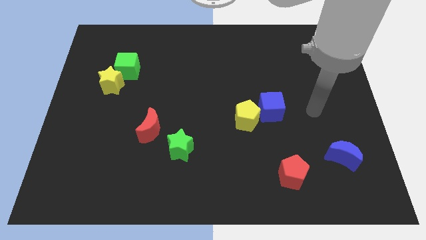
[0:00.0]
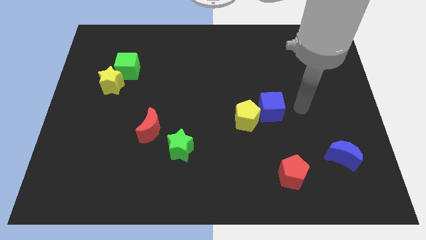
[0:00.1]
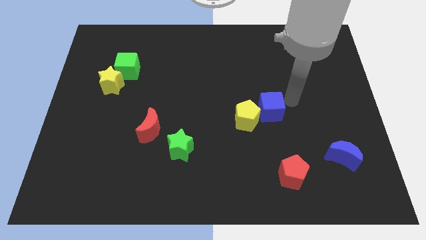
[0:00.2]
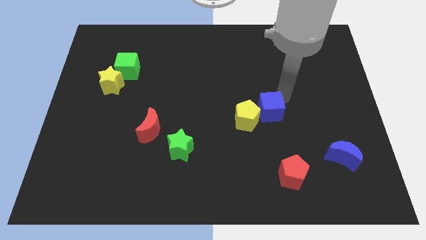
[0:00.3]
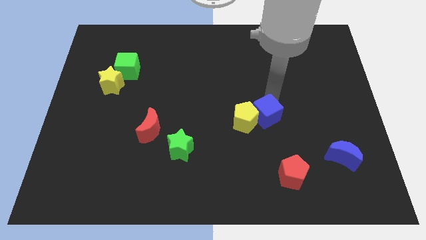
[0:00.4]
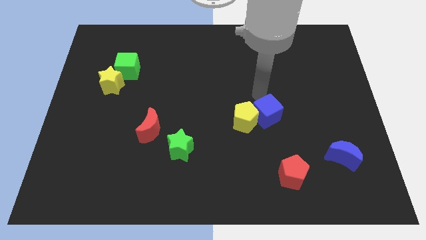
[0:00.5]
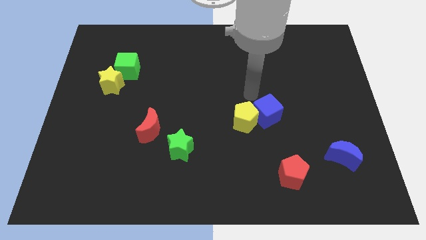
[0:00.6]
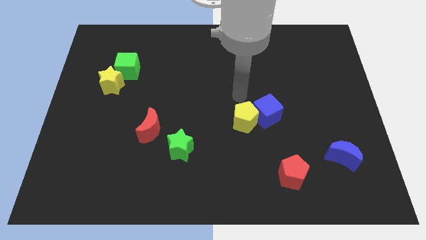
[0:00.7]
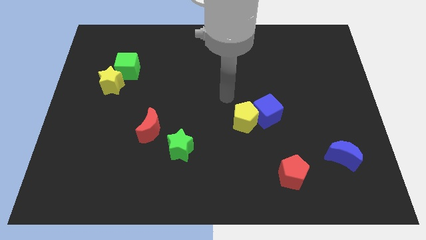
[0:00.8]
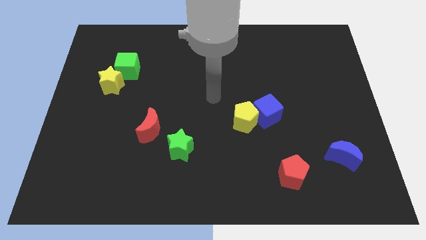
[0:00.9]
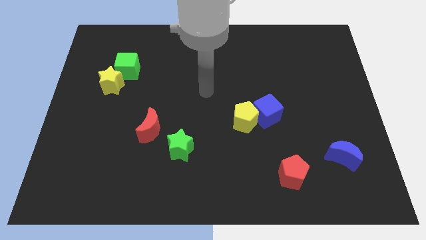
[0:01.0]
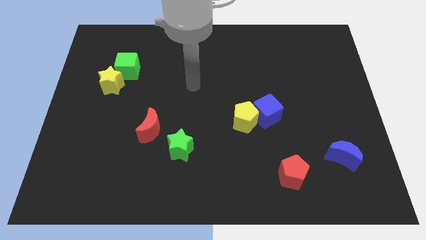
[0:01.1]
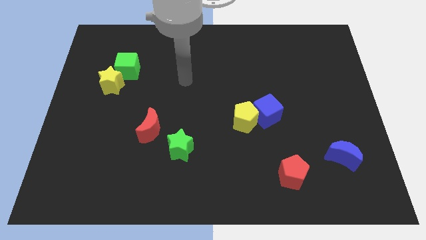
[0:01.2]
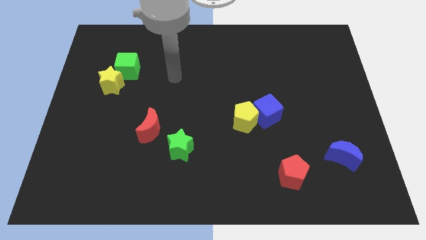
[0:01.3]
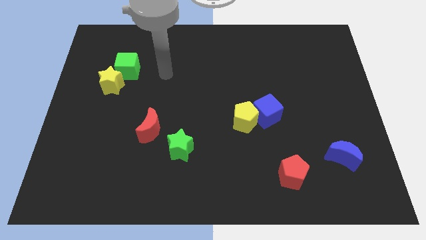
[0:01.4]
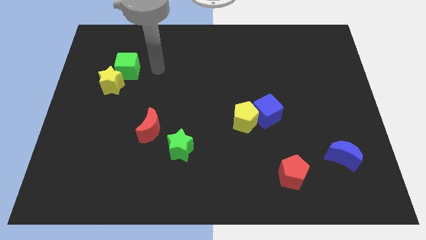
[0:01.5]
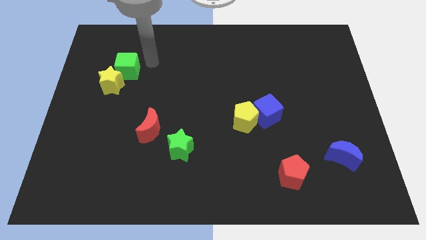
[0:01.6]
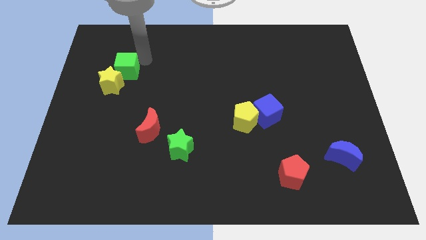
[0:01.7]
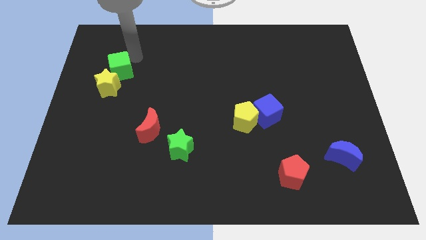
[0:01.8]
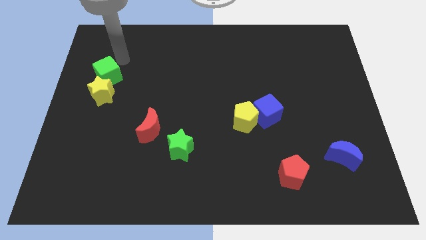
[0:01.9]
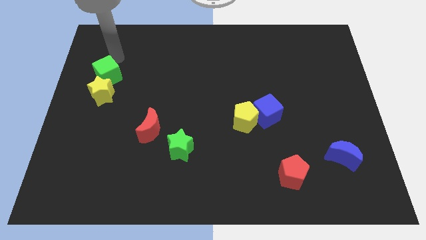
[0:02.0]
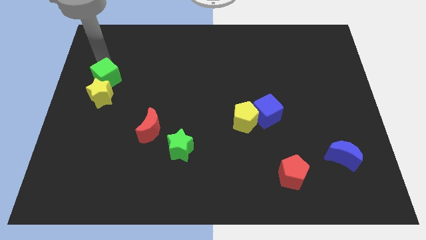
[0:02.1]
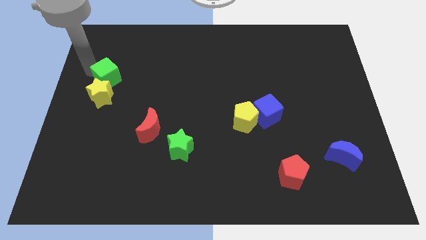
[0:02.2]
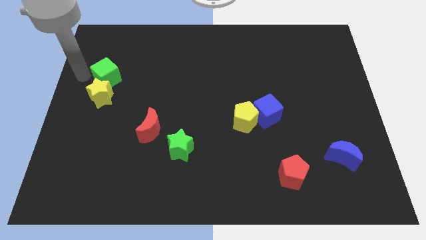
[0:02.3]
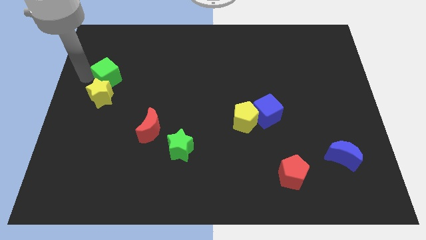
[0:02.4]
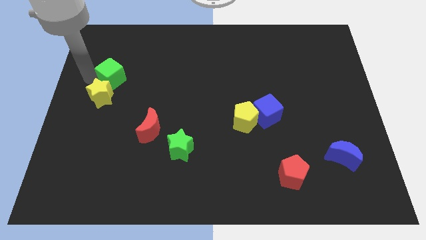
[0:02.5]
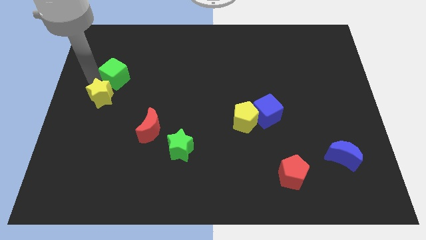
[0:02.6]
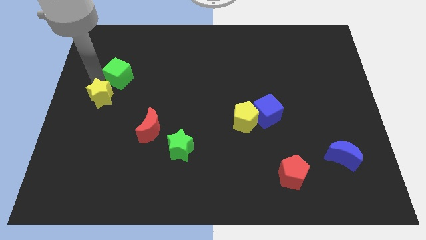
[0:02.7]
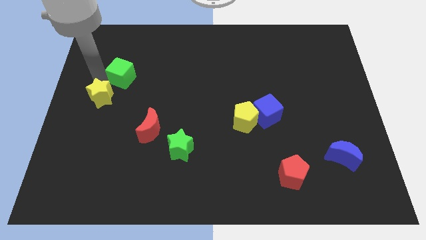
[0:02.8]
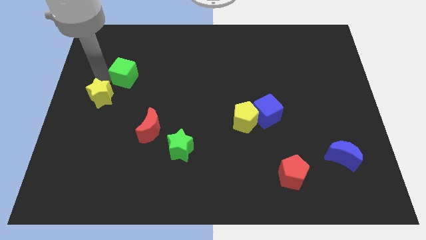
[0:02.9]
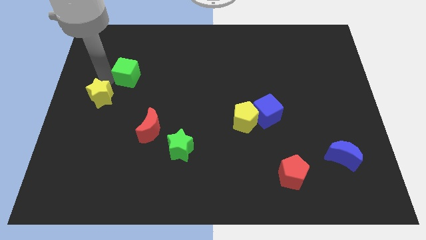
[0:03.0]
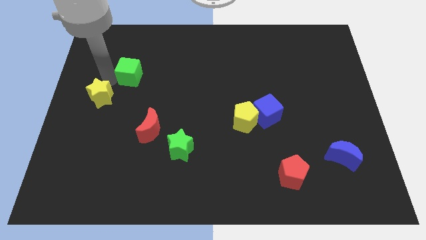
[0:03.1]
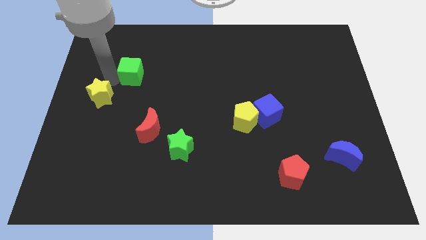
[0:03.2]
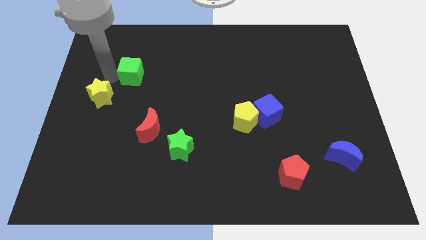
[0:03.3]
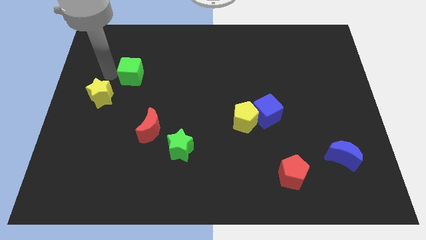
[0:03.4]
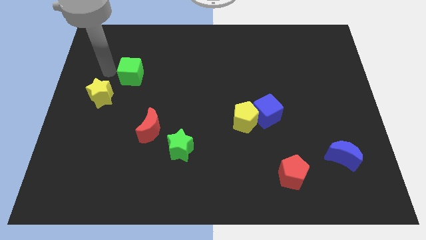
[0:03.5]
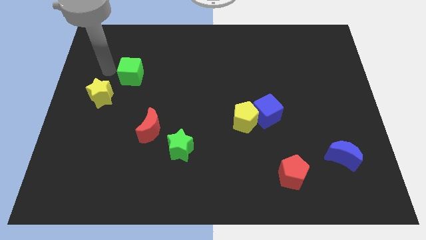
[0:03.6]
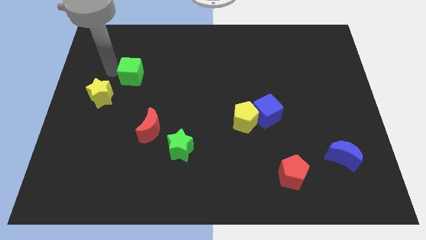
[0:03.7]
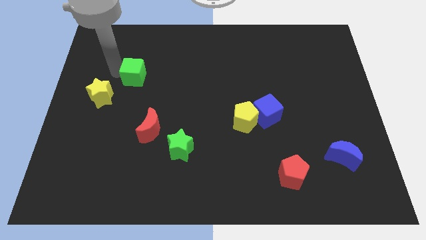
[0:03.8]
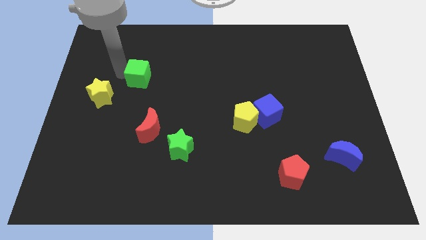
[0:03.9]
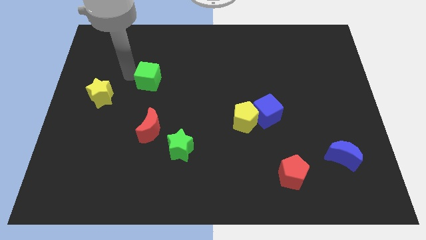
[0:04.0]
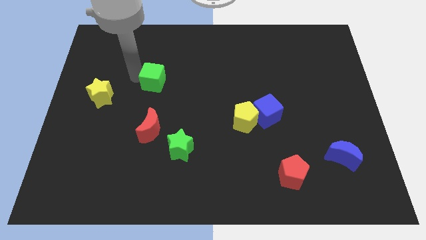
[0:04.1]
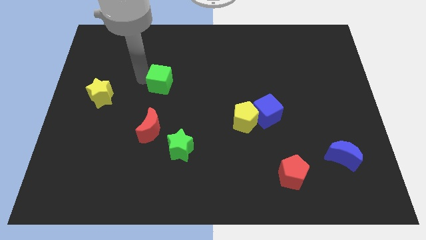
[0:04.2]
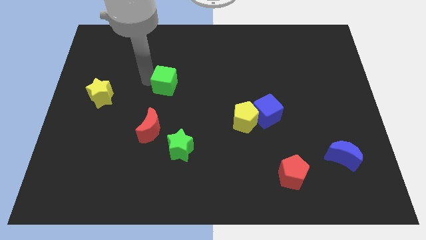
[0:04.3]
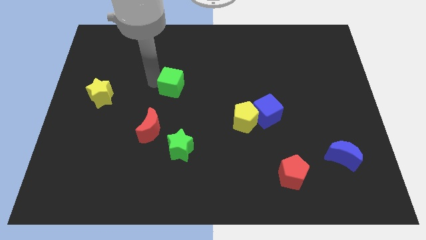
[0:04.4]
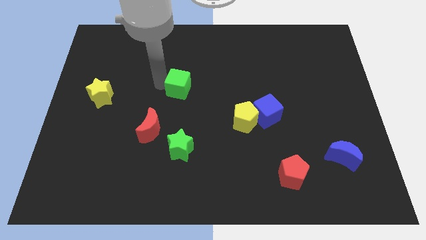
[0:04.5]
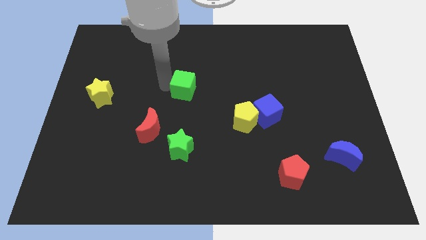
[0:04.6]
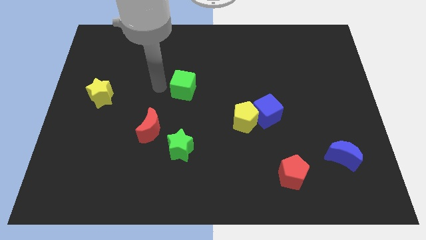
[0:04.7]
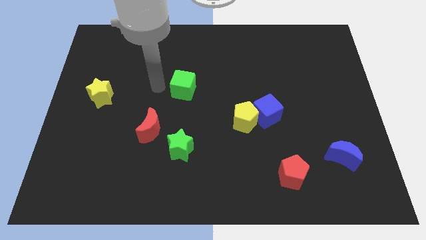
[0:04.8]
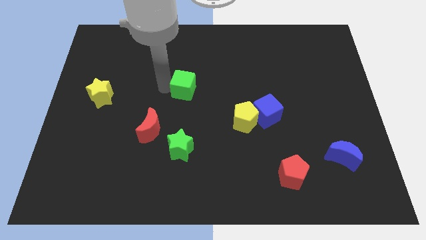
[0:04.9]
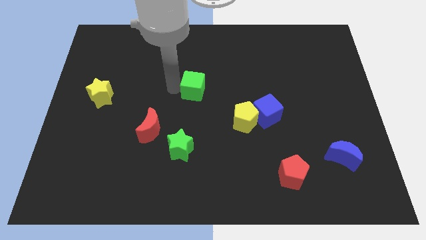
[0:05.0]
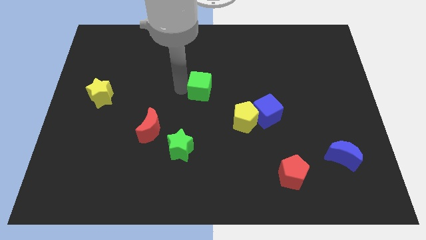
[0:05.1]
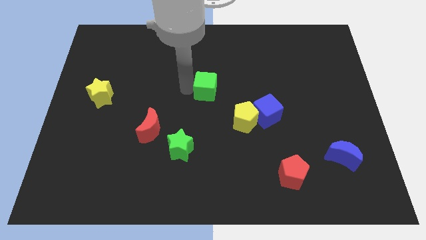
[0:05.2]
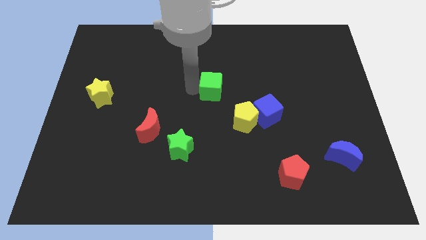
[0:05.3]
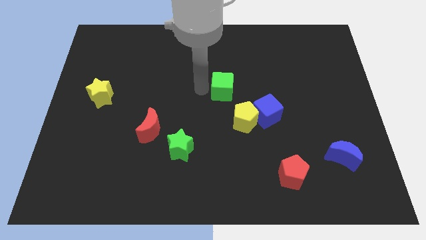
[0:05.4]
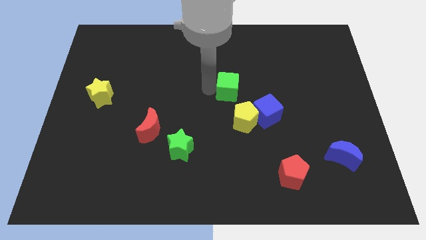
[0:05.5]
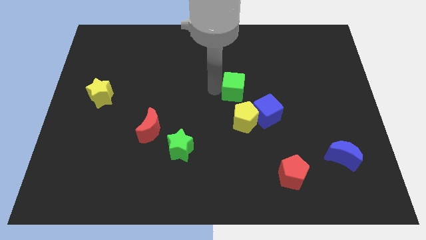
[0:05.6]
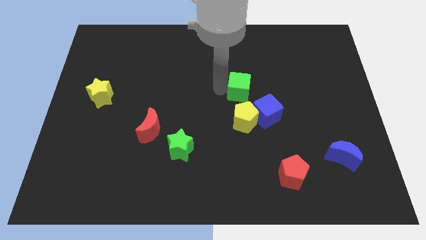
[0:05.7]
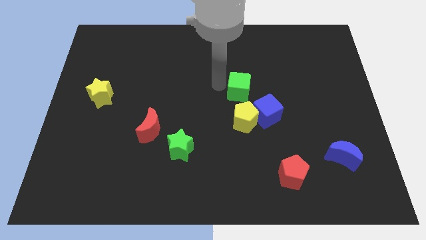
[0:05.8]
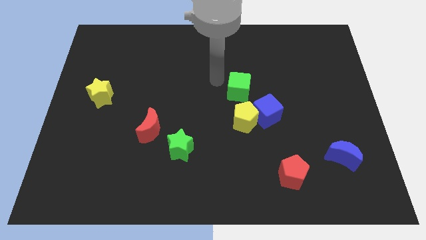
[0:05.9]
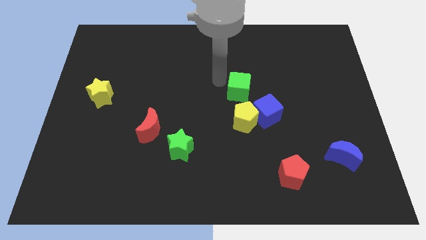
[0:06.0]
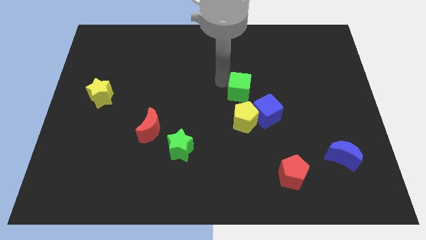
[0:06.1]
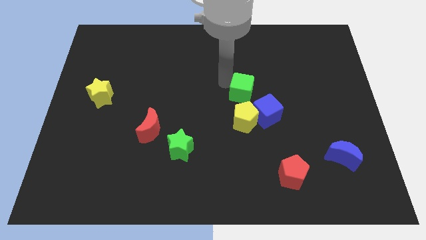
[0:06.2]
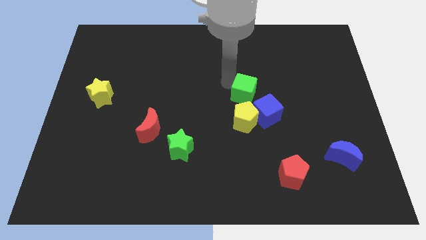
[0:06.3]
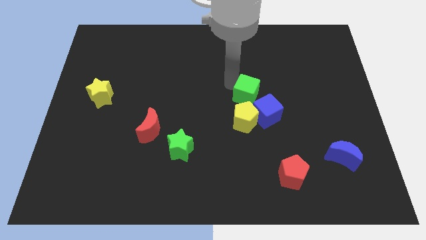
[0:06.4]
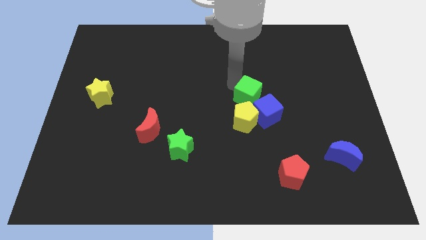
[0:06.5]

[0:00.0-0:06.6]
put the green cube diagonally up and to the right of the yellow pentagon
